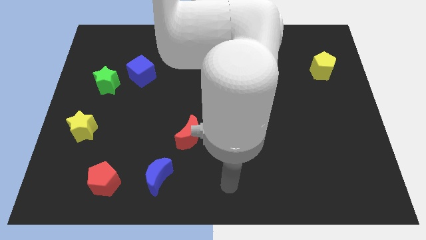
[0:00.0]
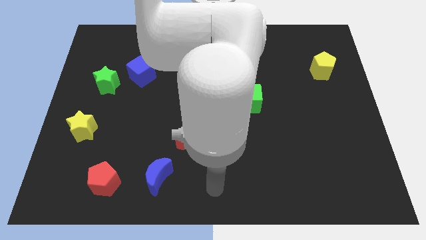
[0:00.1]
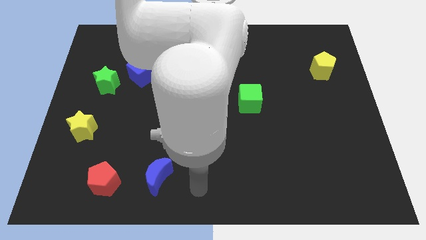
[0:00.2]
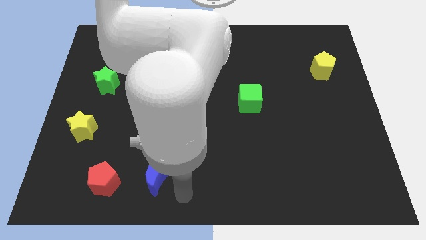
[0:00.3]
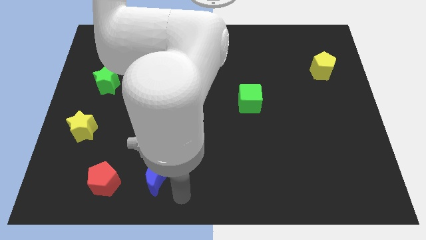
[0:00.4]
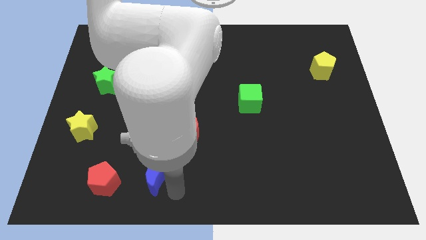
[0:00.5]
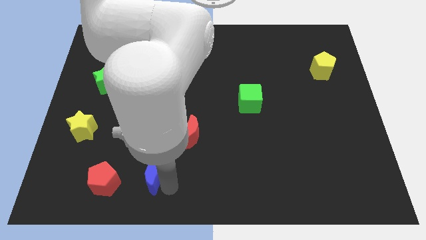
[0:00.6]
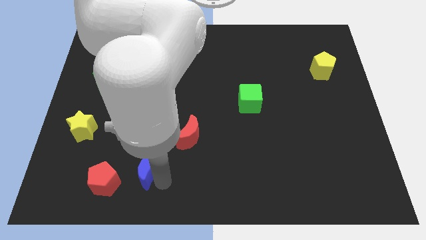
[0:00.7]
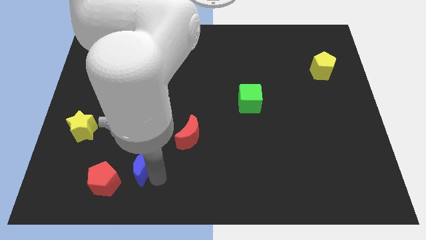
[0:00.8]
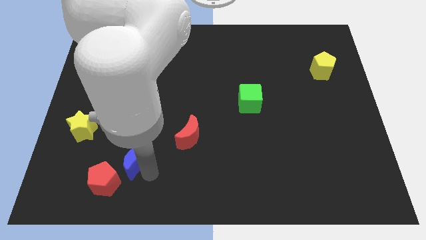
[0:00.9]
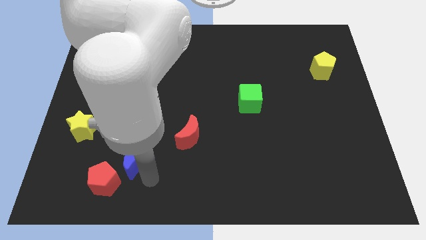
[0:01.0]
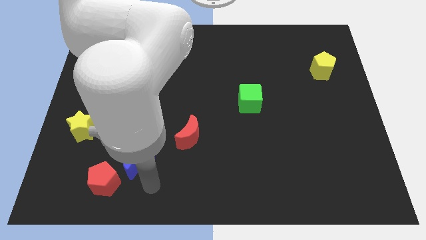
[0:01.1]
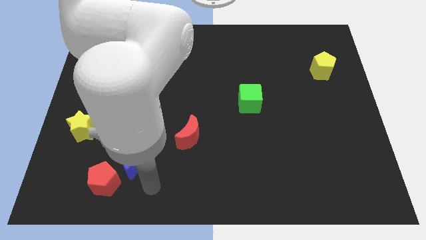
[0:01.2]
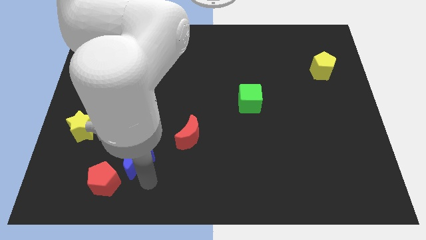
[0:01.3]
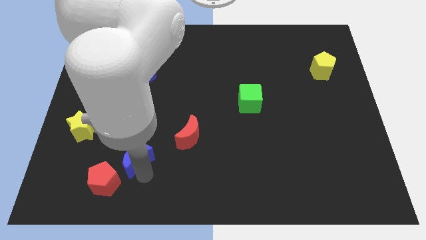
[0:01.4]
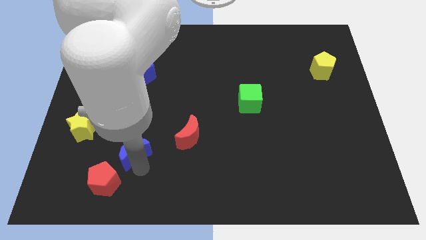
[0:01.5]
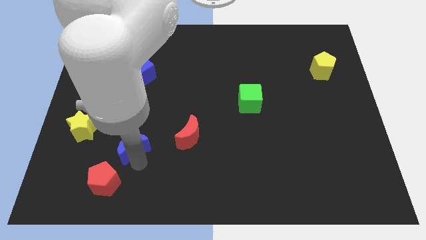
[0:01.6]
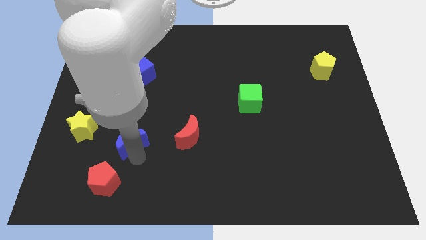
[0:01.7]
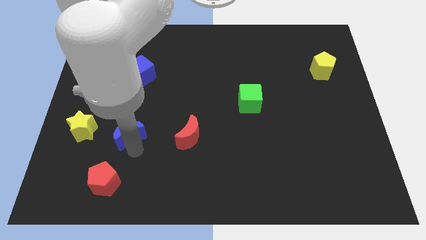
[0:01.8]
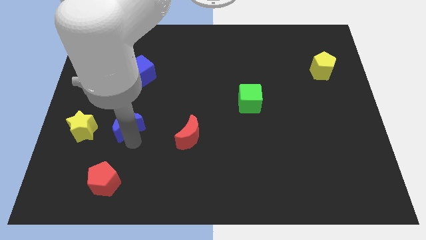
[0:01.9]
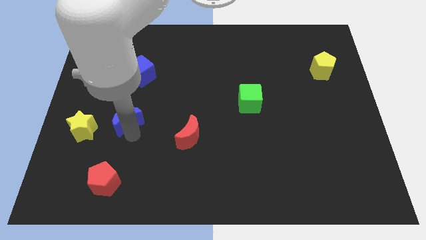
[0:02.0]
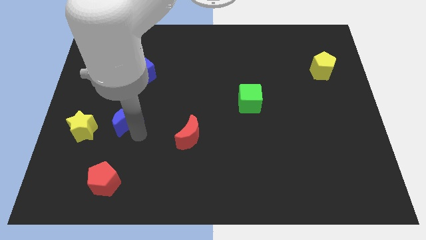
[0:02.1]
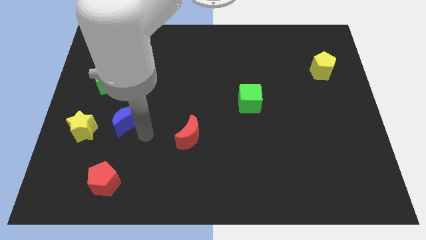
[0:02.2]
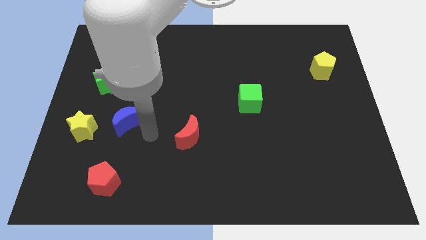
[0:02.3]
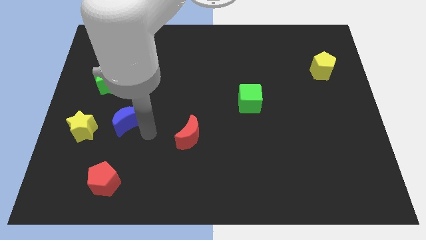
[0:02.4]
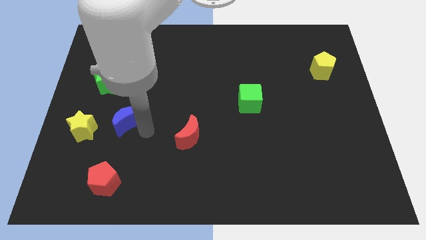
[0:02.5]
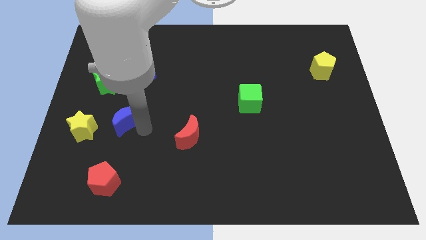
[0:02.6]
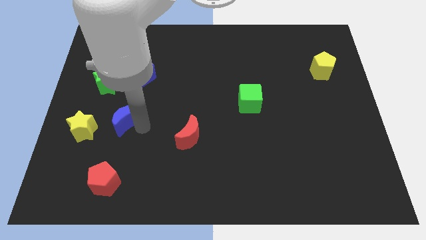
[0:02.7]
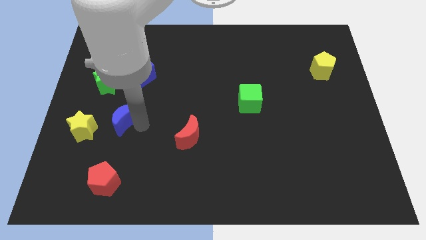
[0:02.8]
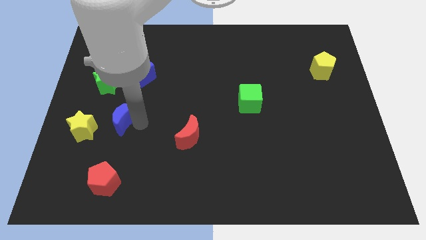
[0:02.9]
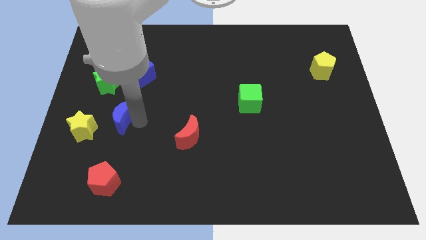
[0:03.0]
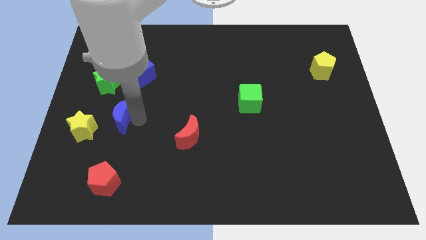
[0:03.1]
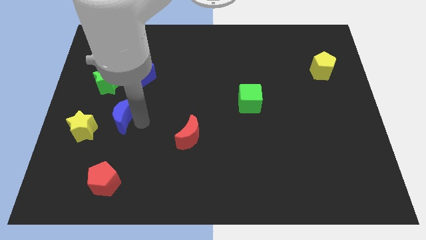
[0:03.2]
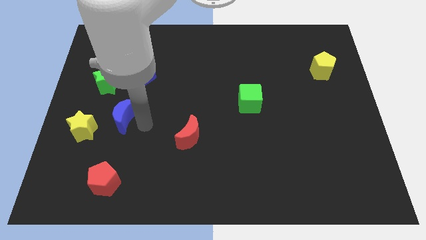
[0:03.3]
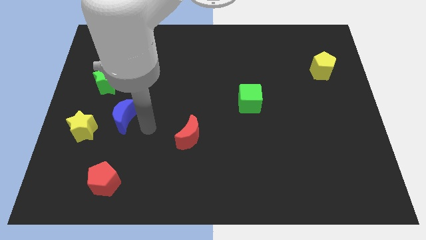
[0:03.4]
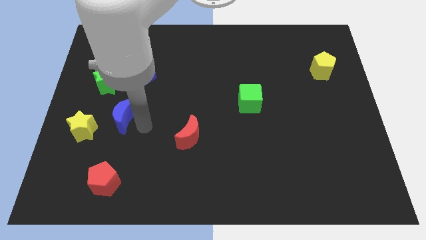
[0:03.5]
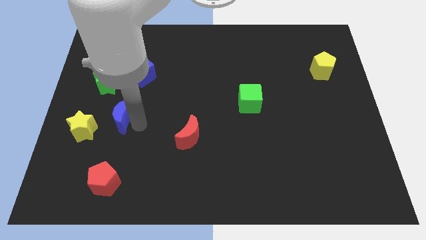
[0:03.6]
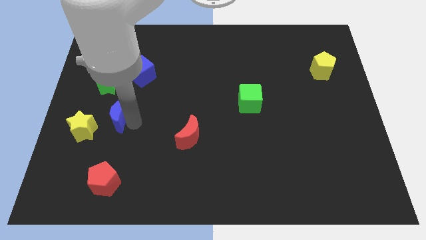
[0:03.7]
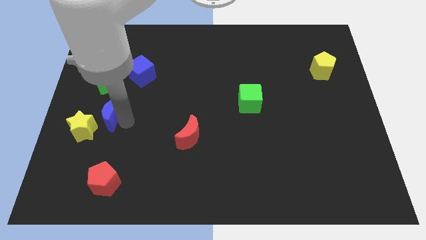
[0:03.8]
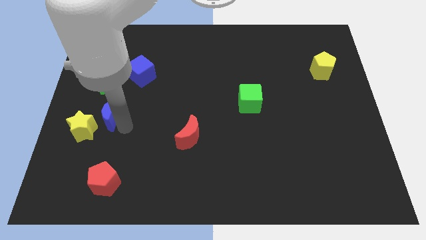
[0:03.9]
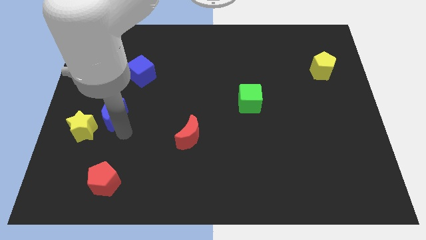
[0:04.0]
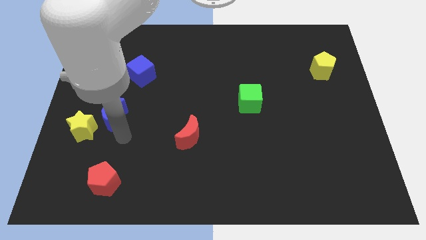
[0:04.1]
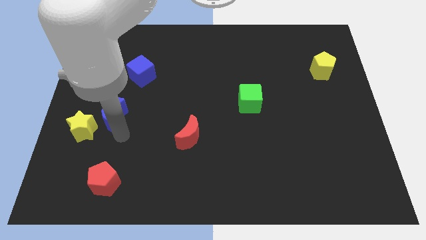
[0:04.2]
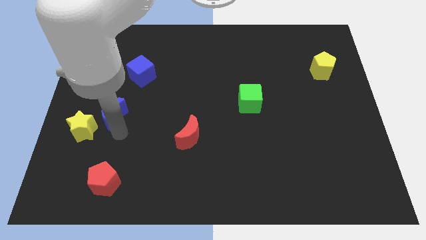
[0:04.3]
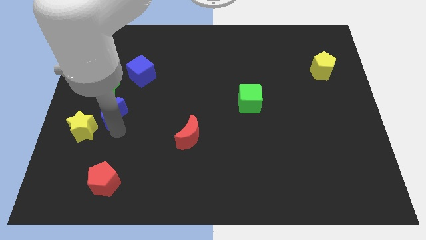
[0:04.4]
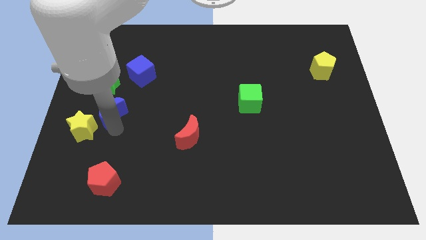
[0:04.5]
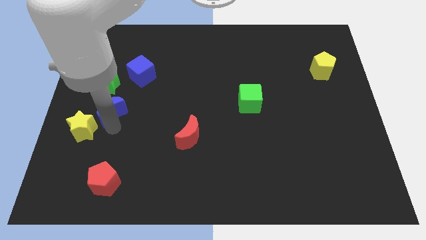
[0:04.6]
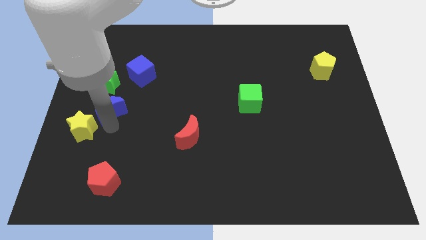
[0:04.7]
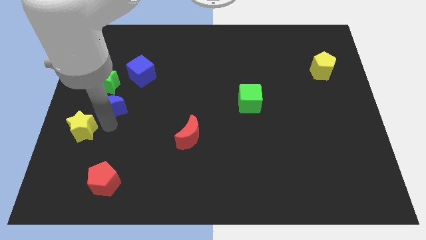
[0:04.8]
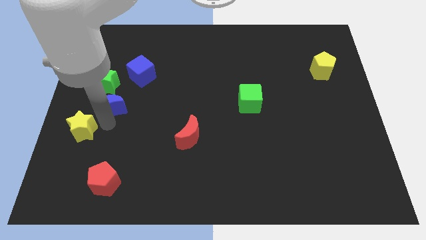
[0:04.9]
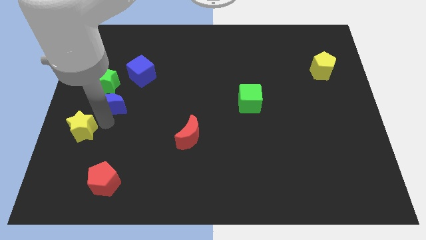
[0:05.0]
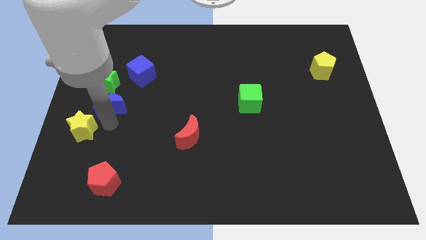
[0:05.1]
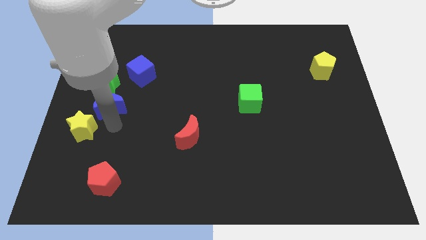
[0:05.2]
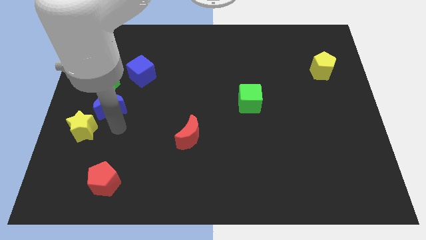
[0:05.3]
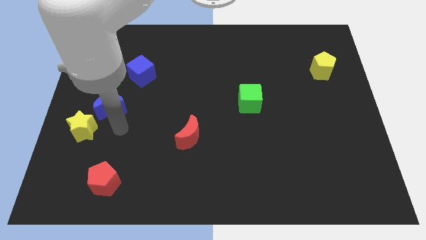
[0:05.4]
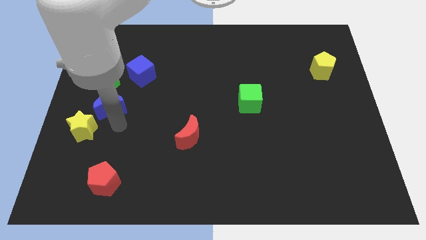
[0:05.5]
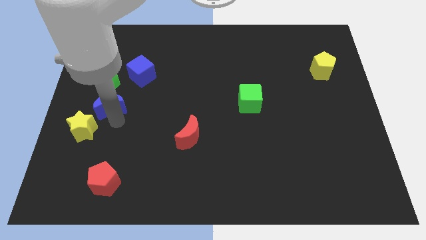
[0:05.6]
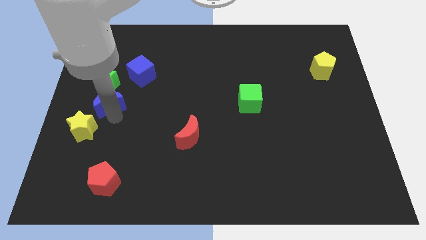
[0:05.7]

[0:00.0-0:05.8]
slide the blue moon to the bottom left side of the blue cube

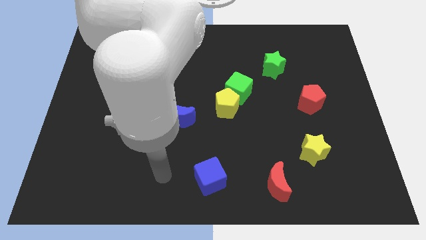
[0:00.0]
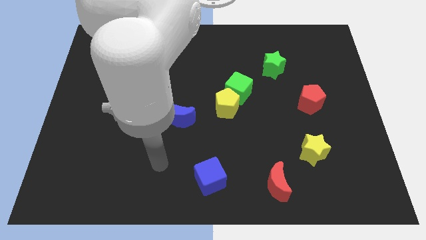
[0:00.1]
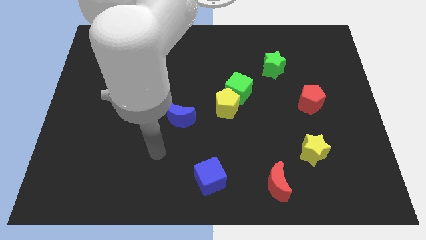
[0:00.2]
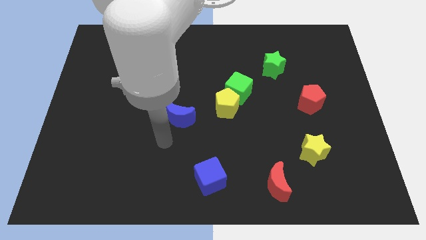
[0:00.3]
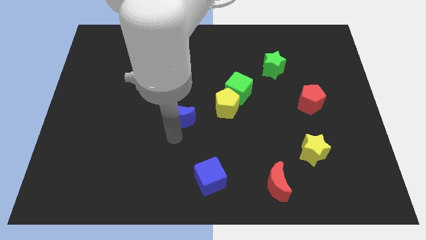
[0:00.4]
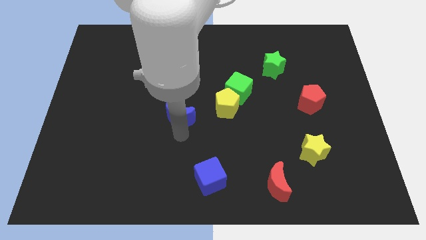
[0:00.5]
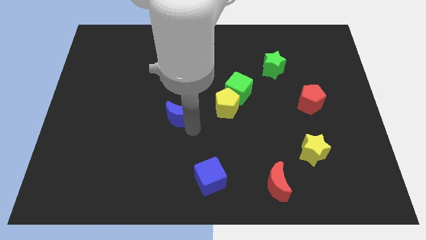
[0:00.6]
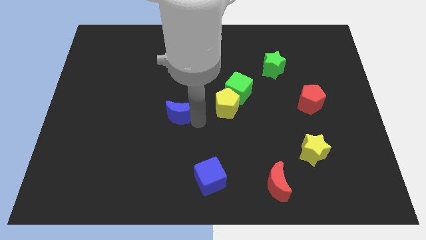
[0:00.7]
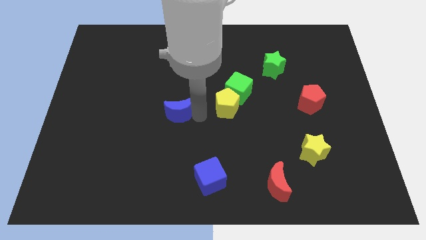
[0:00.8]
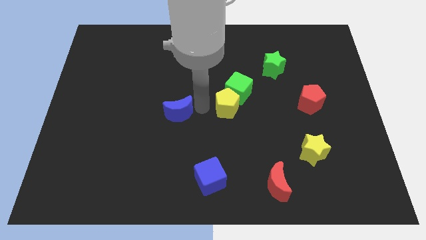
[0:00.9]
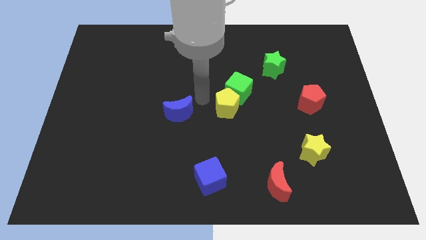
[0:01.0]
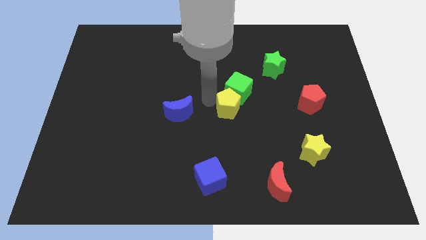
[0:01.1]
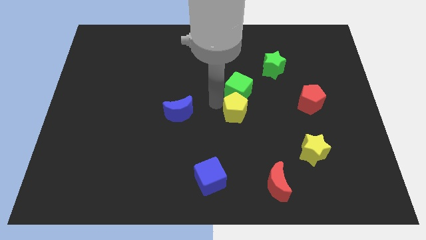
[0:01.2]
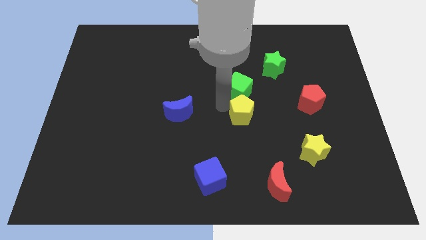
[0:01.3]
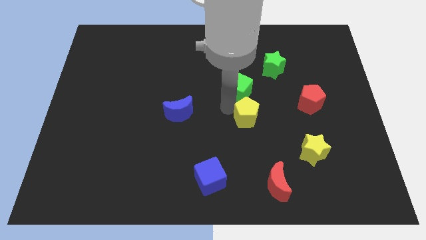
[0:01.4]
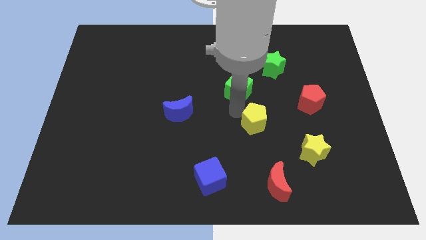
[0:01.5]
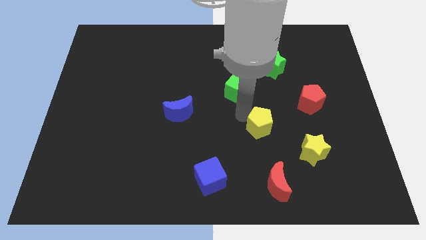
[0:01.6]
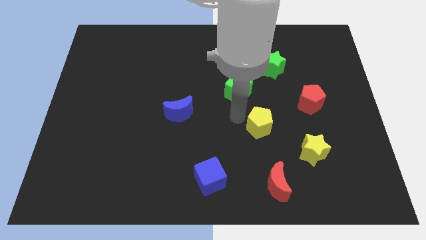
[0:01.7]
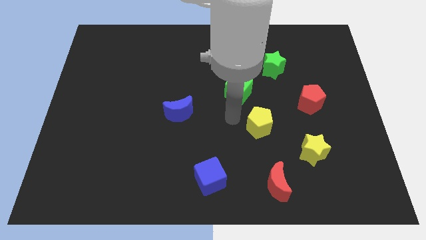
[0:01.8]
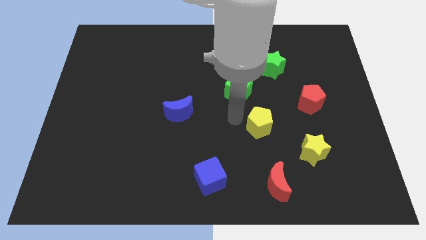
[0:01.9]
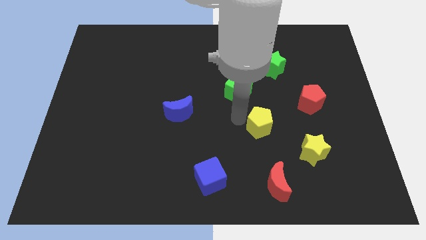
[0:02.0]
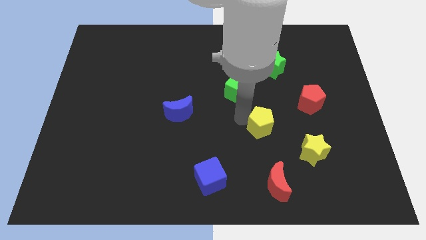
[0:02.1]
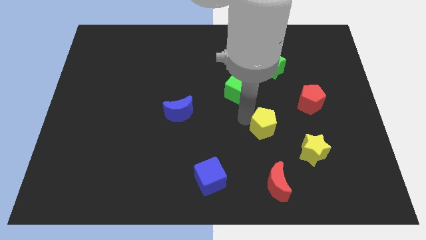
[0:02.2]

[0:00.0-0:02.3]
push the yellow pentagon diagonally up and to the left of the yellow star
